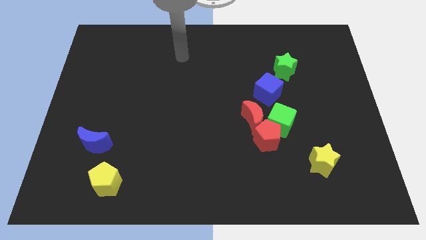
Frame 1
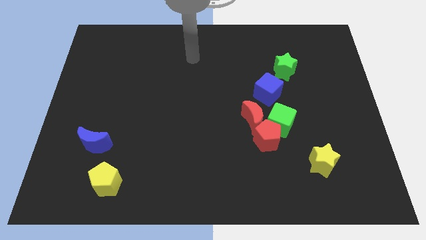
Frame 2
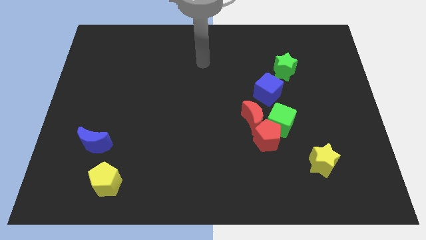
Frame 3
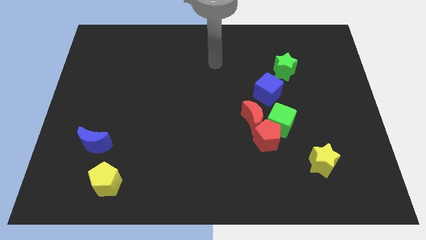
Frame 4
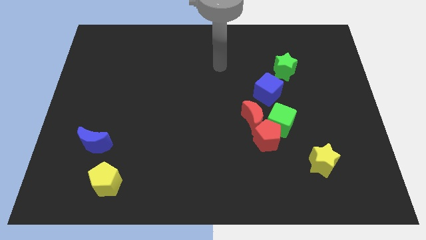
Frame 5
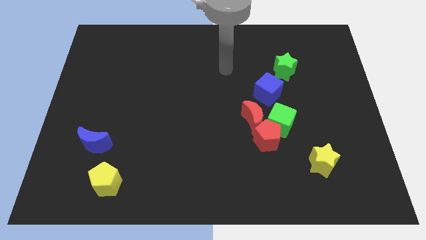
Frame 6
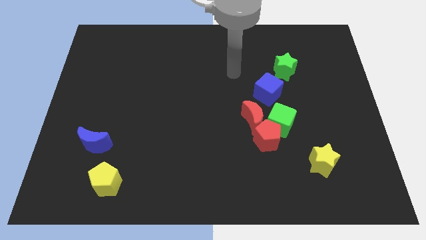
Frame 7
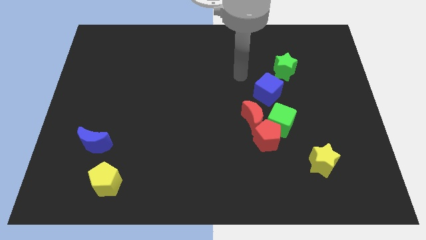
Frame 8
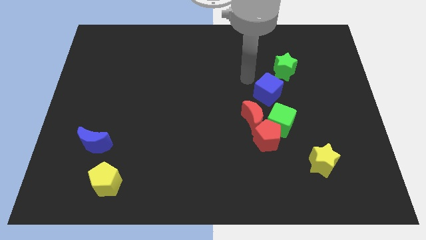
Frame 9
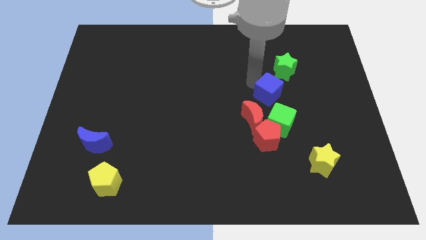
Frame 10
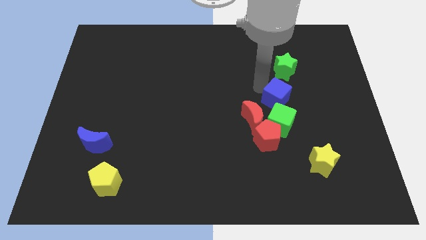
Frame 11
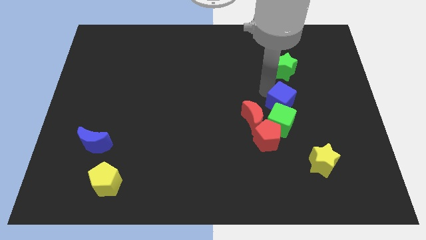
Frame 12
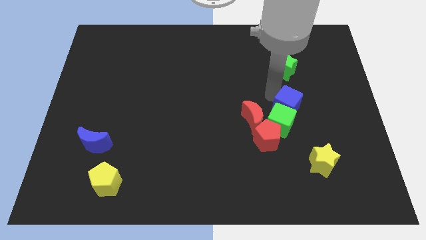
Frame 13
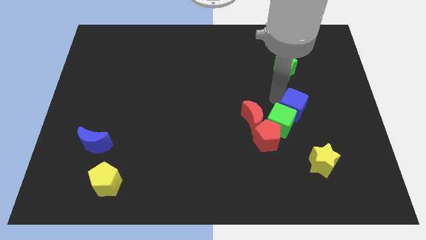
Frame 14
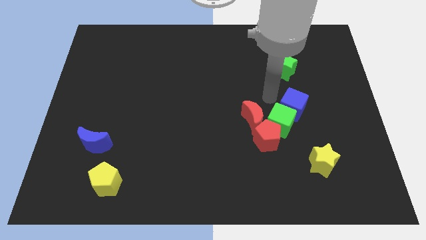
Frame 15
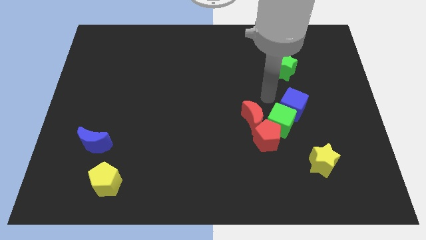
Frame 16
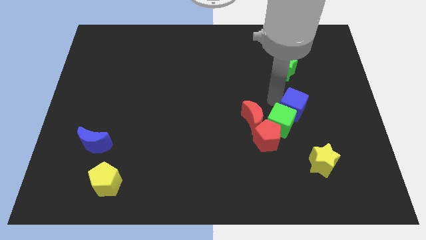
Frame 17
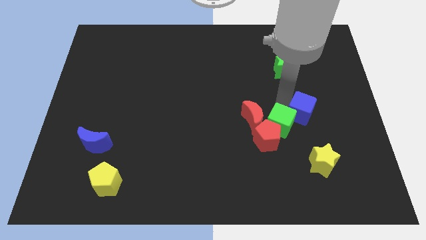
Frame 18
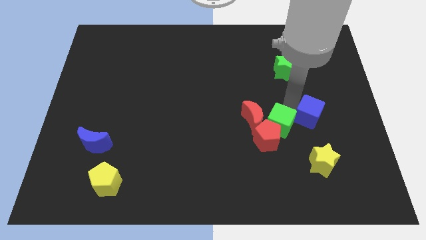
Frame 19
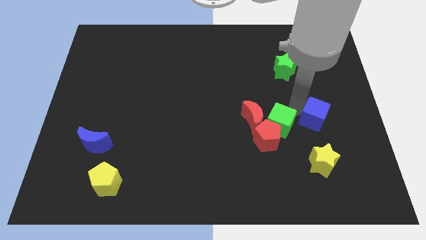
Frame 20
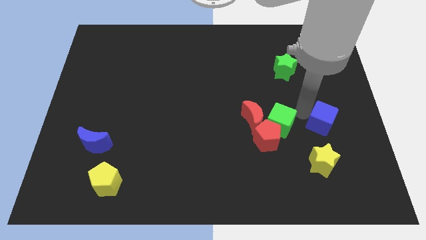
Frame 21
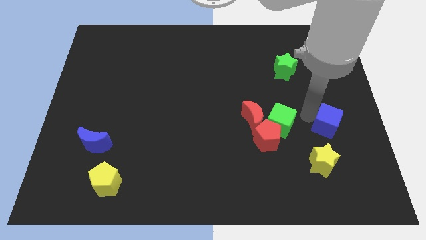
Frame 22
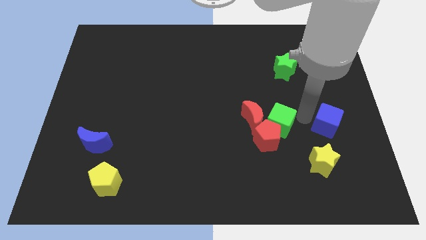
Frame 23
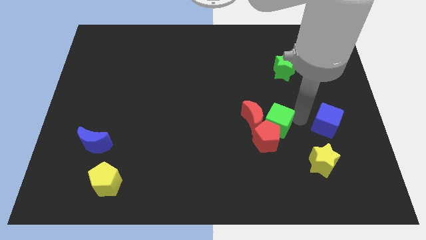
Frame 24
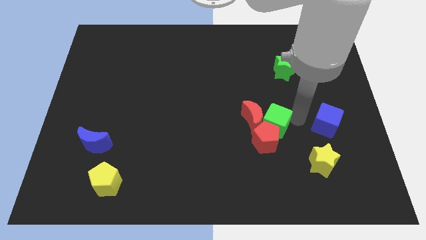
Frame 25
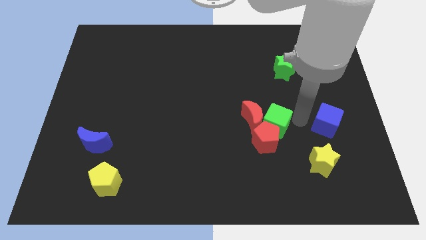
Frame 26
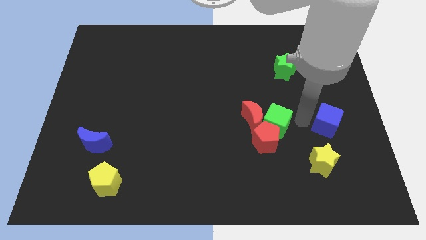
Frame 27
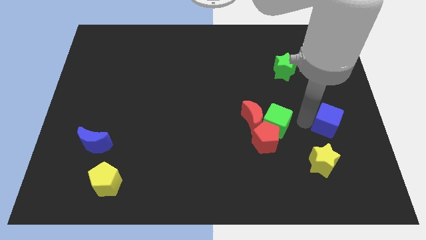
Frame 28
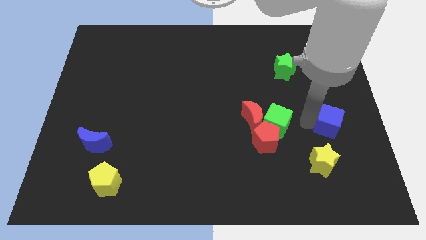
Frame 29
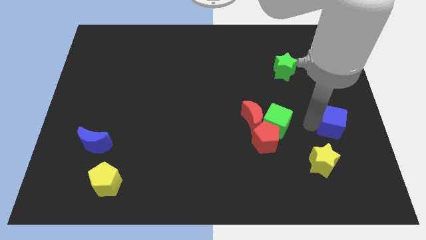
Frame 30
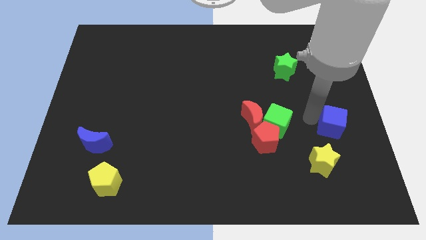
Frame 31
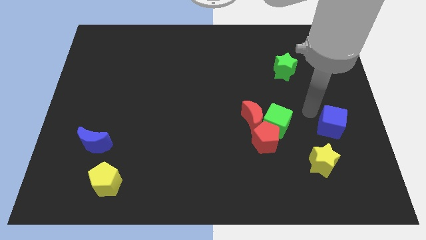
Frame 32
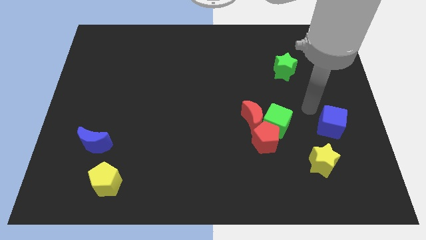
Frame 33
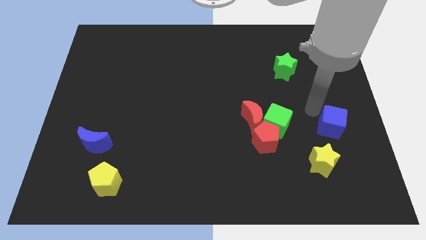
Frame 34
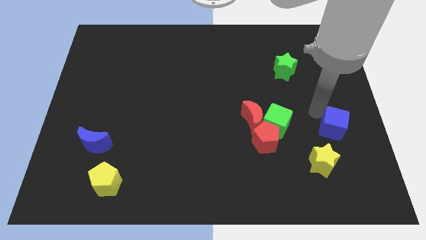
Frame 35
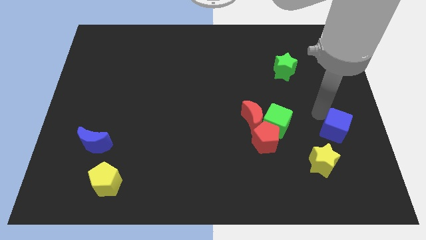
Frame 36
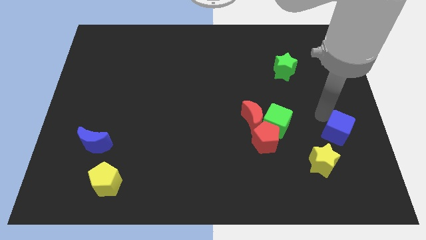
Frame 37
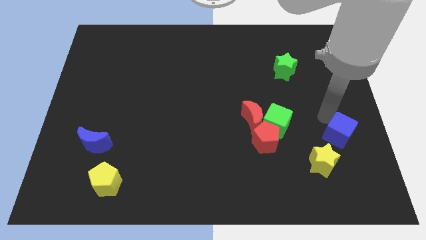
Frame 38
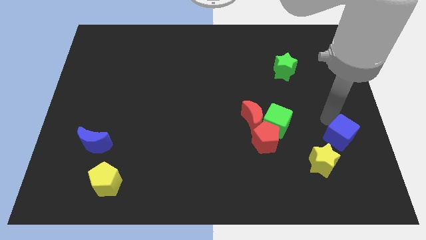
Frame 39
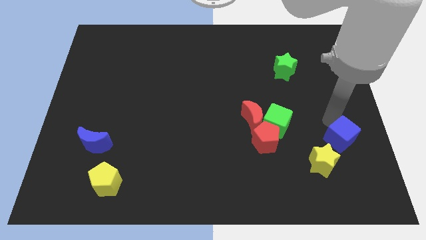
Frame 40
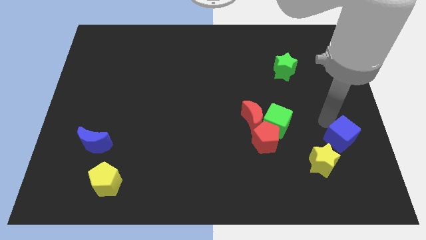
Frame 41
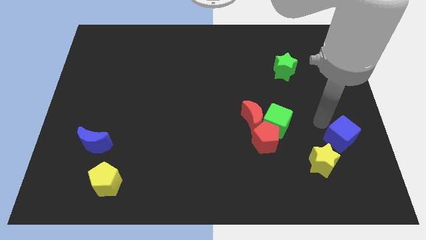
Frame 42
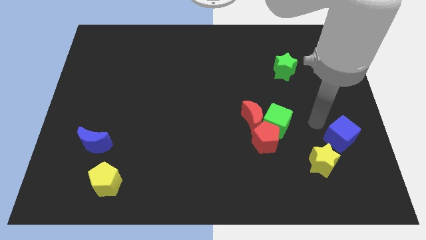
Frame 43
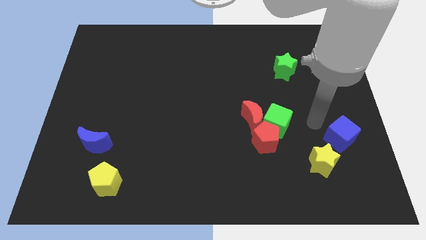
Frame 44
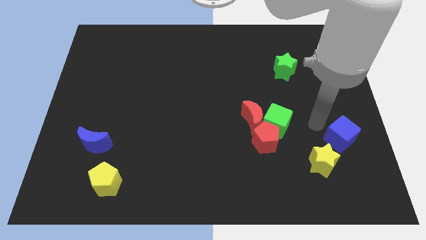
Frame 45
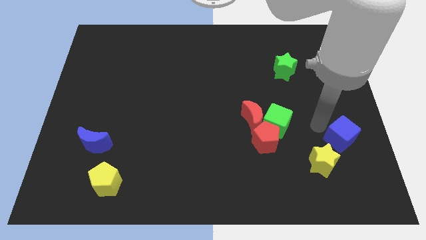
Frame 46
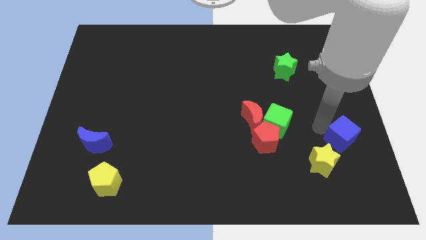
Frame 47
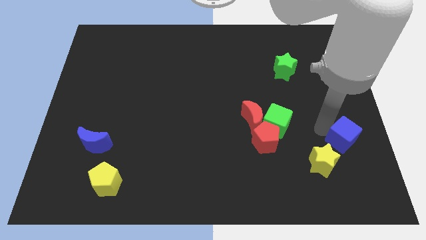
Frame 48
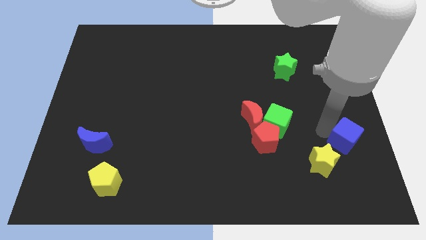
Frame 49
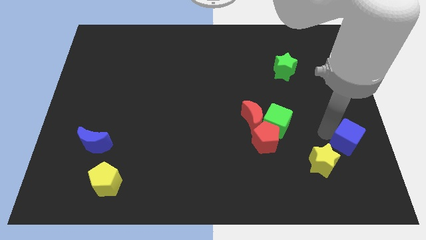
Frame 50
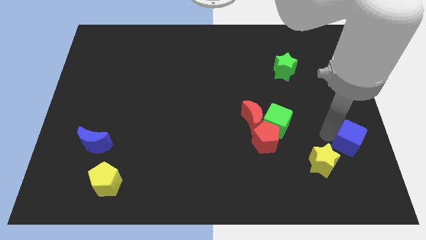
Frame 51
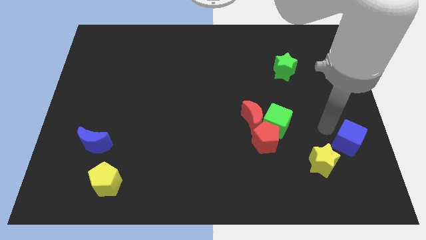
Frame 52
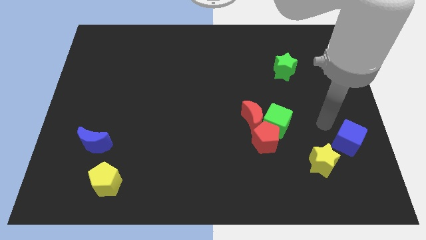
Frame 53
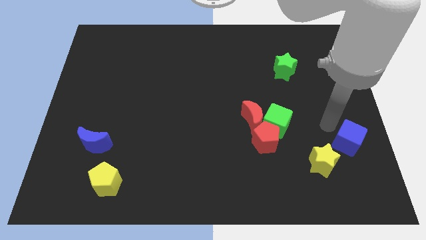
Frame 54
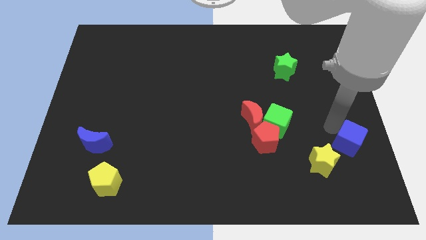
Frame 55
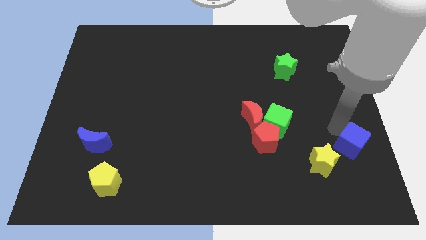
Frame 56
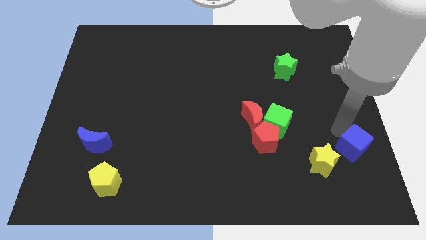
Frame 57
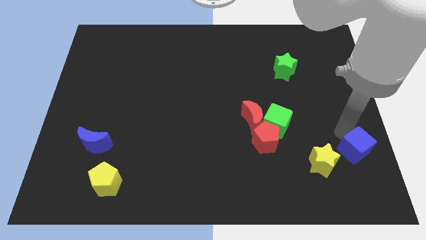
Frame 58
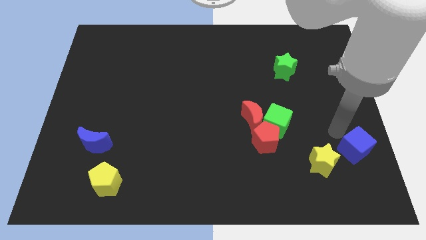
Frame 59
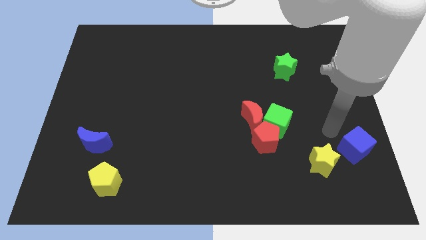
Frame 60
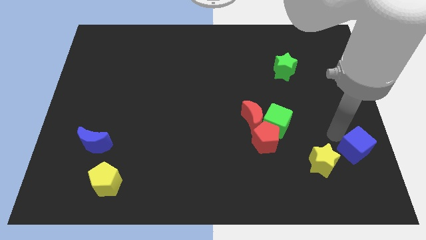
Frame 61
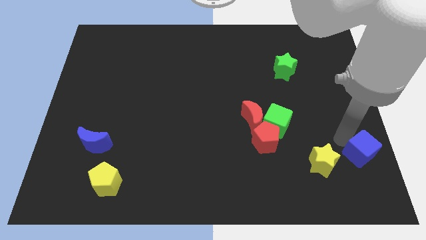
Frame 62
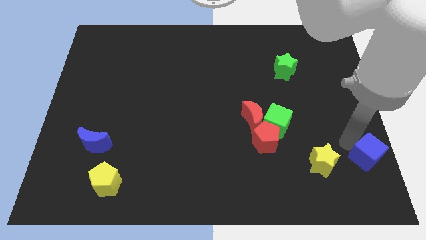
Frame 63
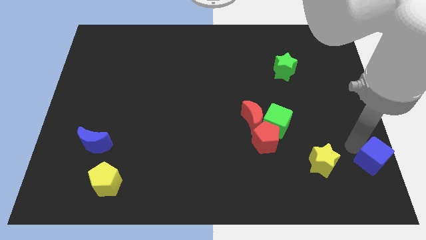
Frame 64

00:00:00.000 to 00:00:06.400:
move the blue cube to the lower right corner
